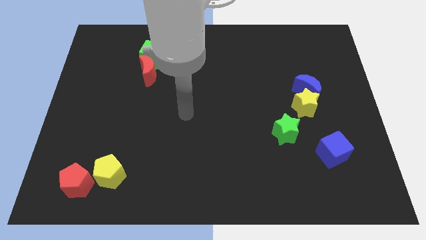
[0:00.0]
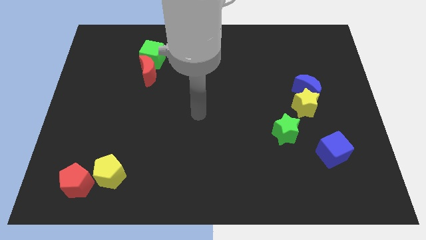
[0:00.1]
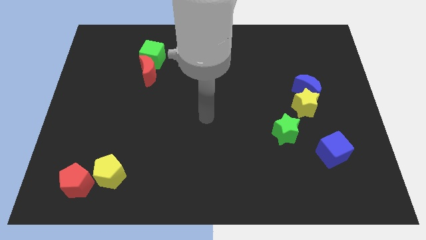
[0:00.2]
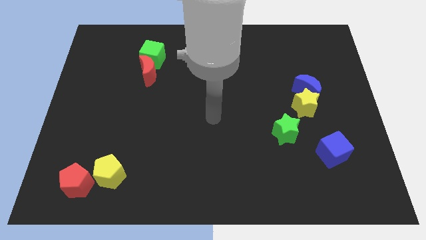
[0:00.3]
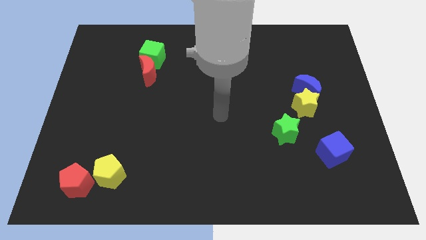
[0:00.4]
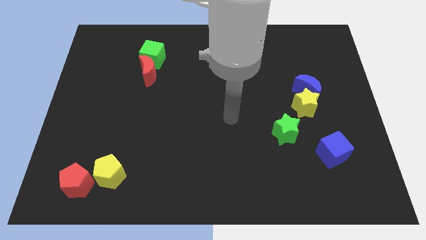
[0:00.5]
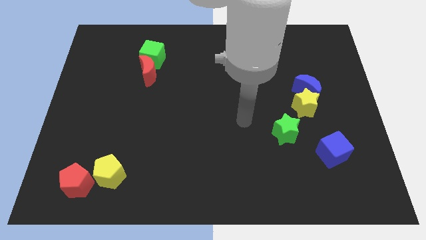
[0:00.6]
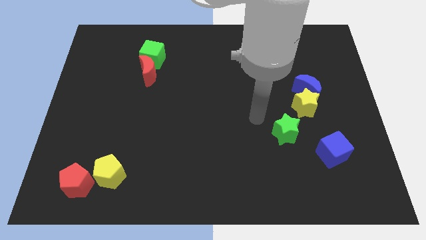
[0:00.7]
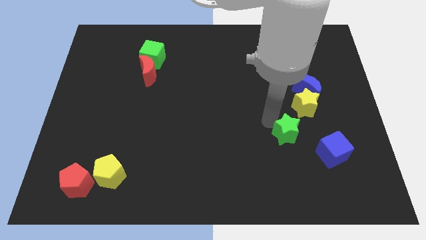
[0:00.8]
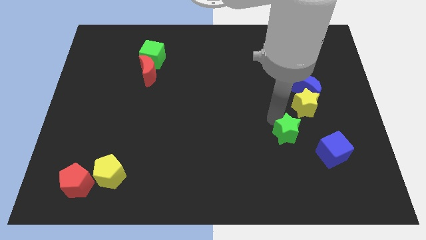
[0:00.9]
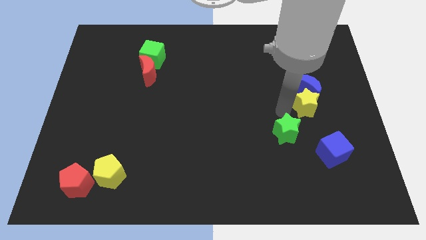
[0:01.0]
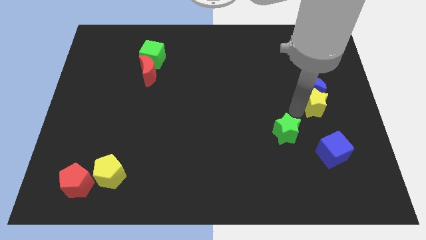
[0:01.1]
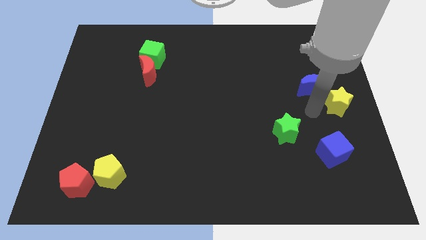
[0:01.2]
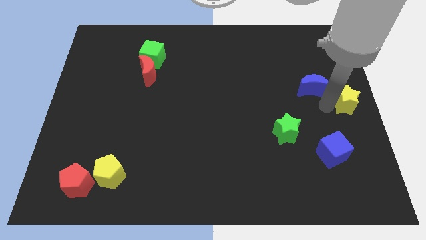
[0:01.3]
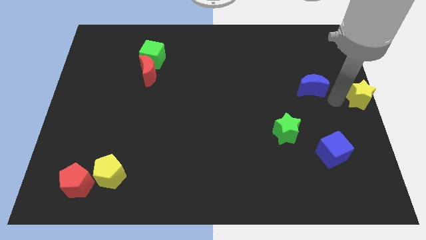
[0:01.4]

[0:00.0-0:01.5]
pull the blue moon apart from the yellow star

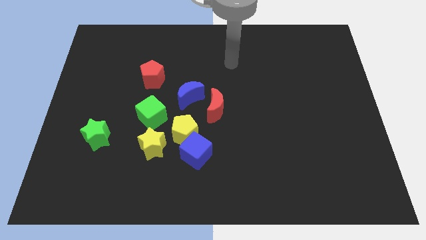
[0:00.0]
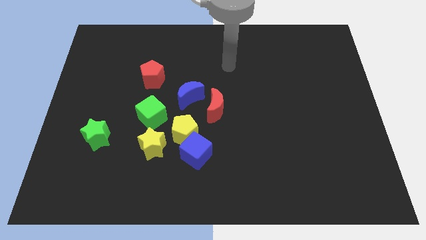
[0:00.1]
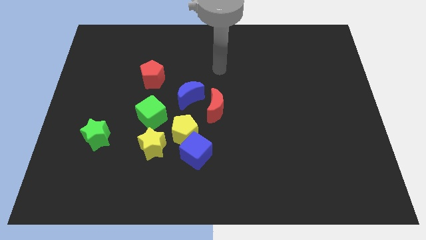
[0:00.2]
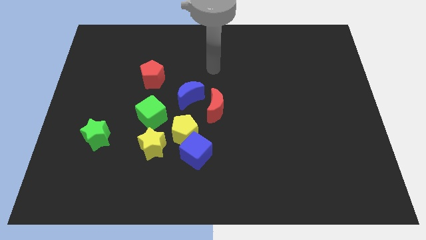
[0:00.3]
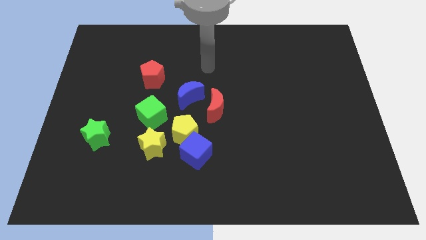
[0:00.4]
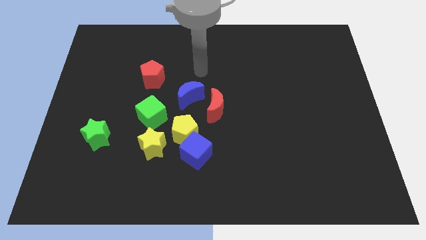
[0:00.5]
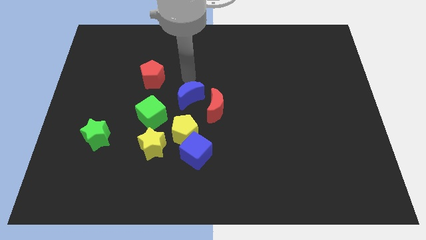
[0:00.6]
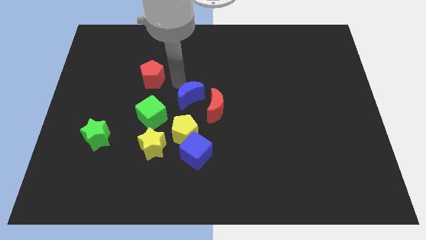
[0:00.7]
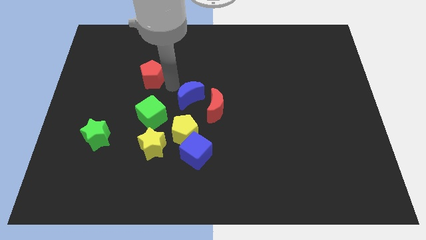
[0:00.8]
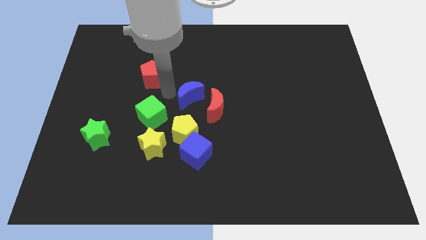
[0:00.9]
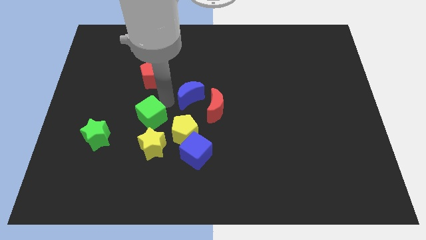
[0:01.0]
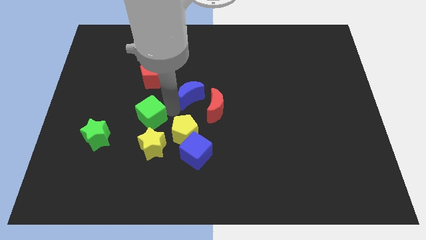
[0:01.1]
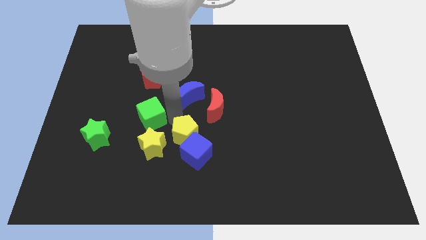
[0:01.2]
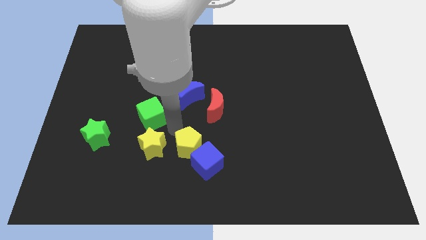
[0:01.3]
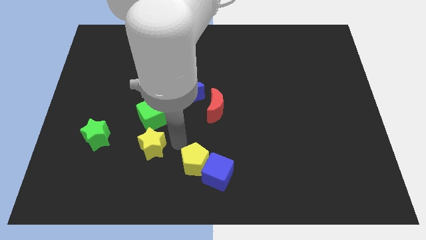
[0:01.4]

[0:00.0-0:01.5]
pull the blue cube apart from the yellow pentagon and yellow star

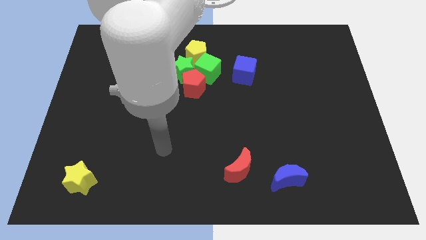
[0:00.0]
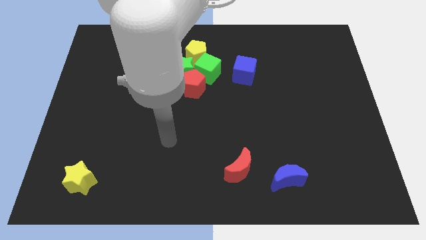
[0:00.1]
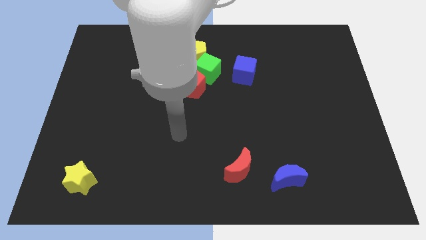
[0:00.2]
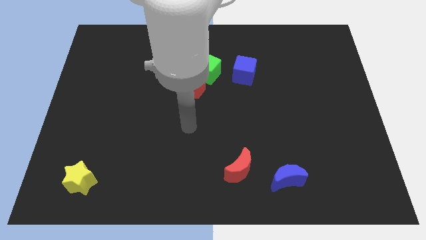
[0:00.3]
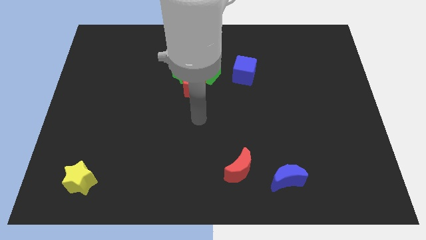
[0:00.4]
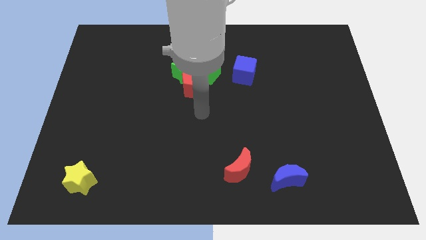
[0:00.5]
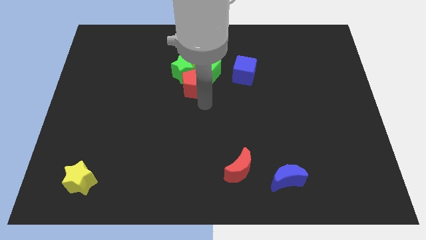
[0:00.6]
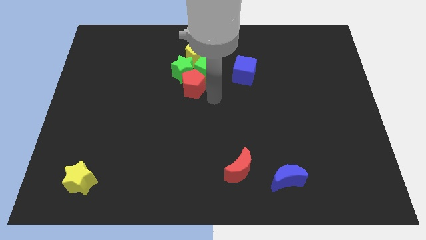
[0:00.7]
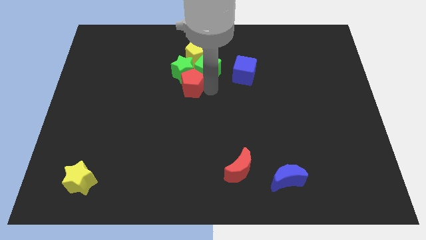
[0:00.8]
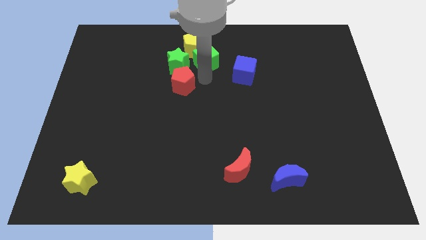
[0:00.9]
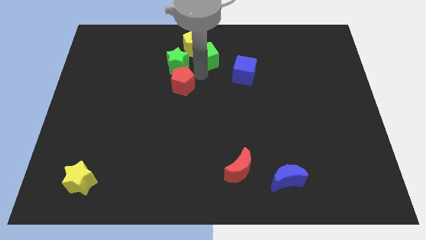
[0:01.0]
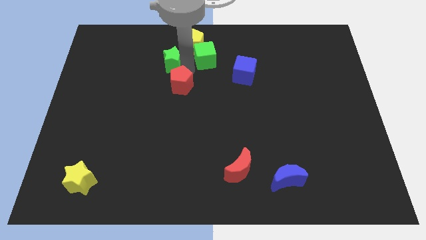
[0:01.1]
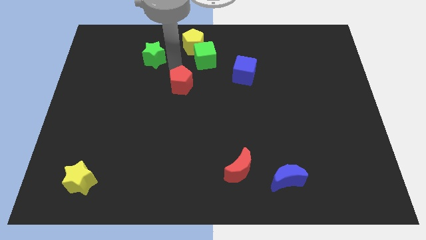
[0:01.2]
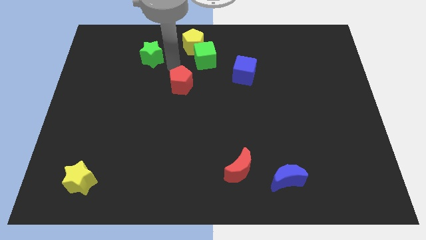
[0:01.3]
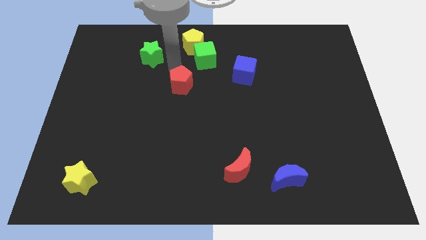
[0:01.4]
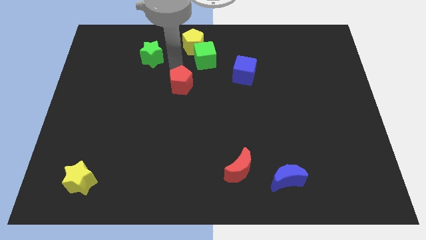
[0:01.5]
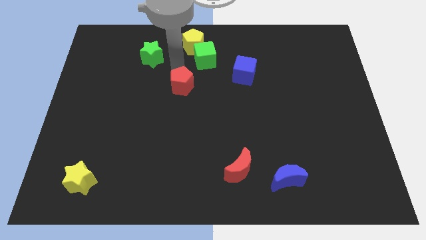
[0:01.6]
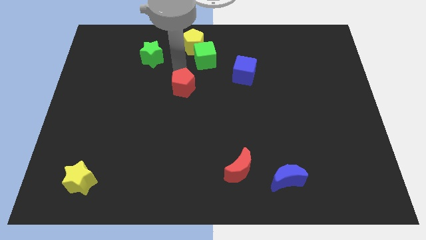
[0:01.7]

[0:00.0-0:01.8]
pull the red pentagon apart from the green star and green cube

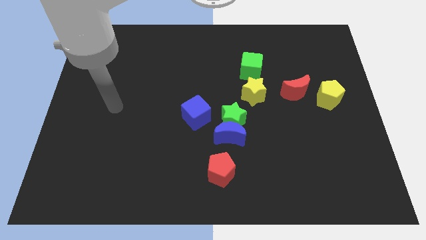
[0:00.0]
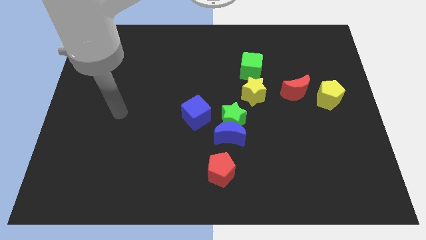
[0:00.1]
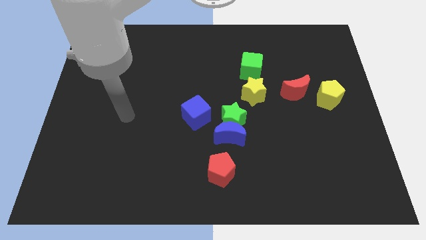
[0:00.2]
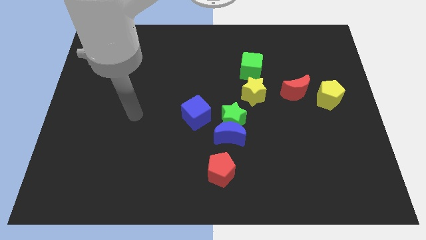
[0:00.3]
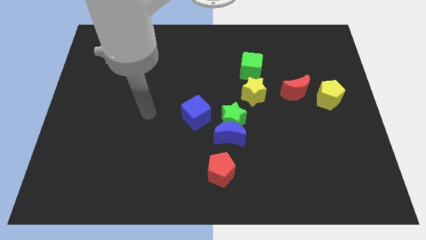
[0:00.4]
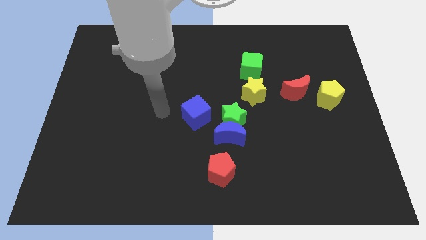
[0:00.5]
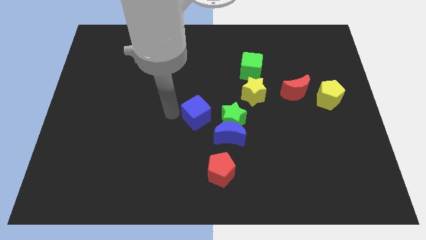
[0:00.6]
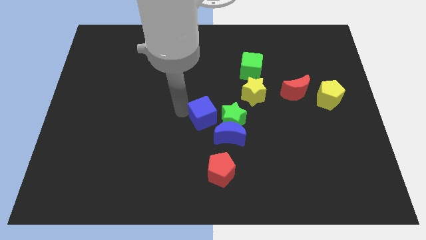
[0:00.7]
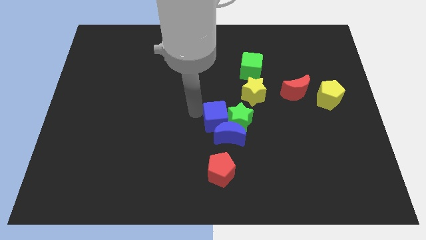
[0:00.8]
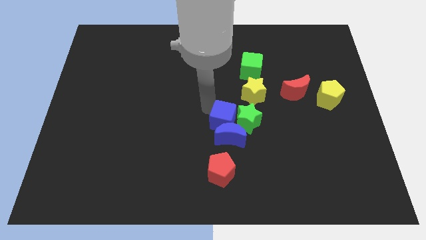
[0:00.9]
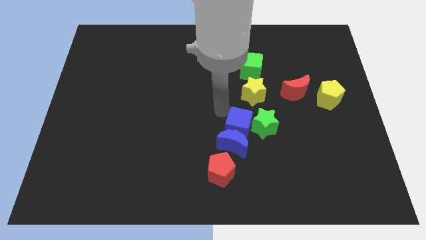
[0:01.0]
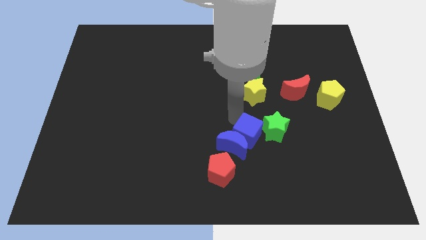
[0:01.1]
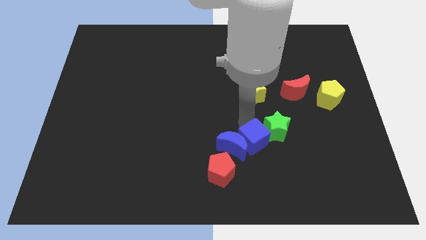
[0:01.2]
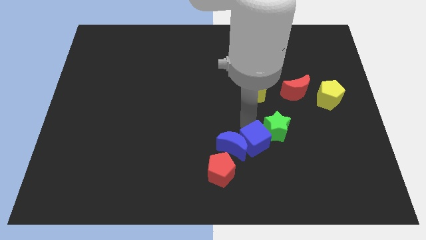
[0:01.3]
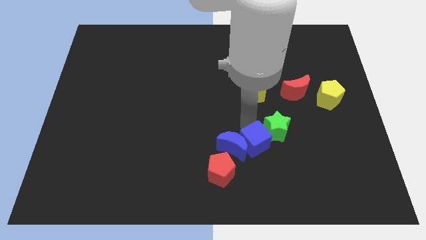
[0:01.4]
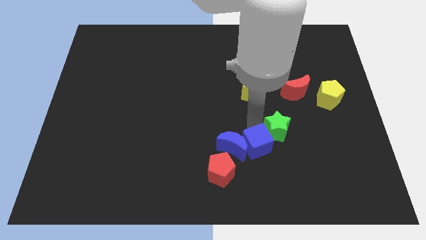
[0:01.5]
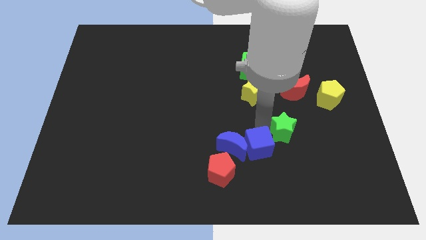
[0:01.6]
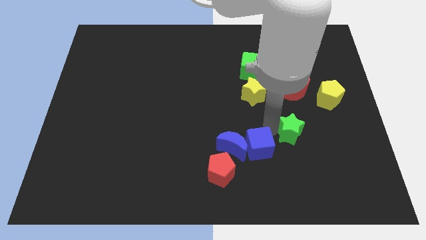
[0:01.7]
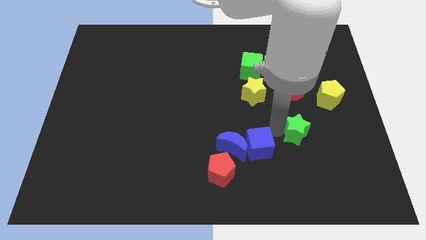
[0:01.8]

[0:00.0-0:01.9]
pull the green star apart from the blue moon, blue cube, and yellow star

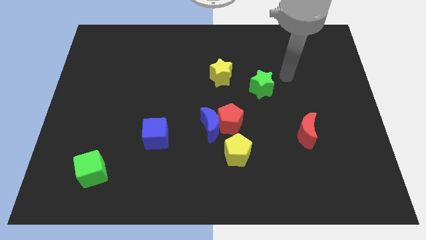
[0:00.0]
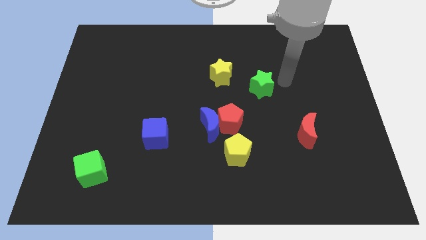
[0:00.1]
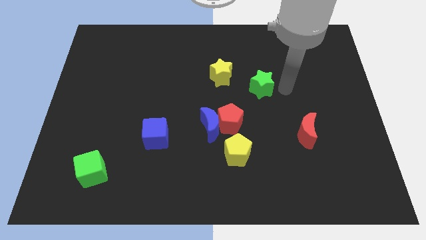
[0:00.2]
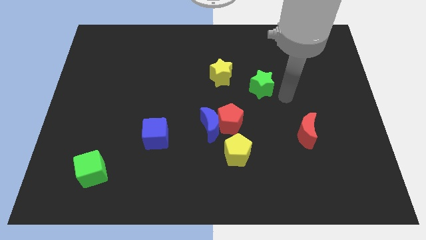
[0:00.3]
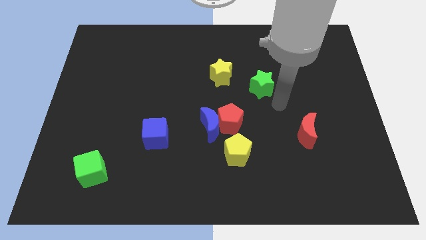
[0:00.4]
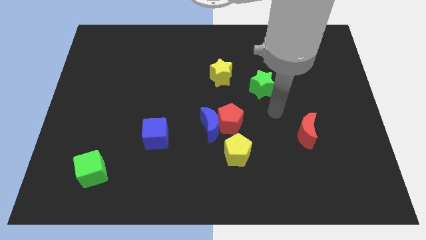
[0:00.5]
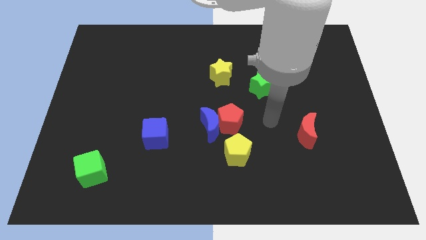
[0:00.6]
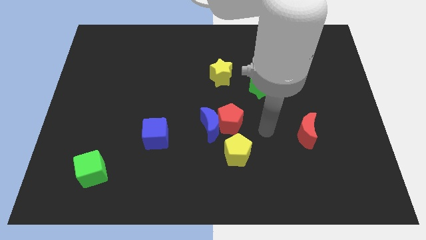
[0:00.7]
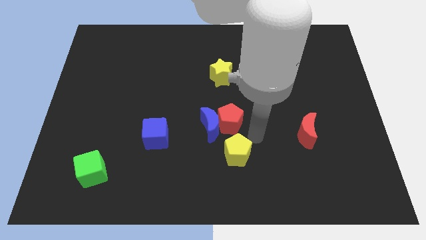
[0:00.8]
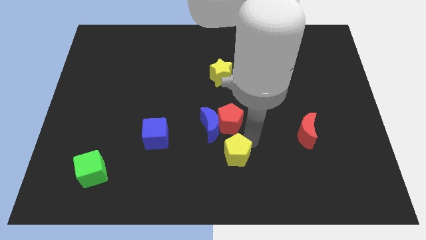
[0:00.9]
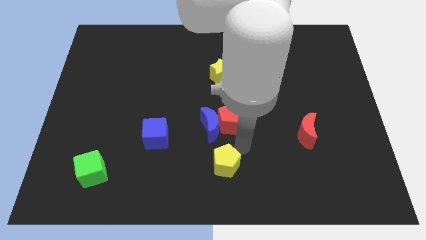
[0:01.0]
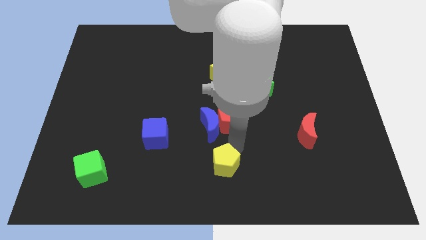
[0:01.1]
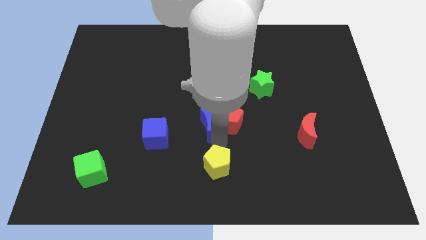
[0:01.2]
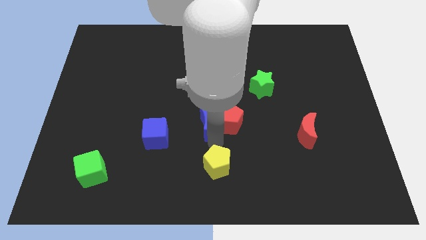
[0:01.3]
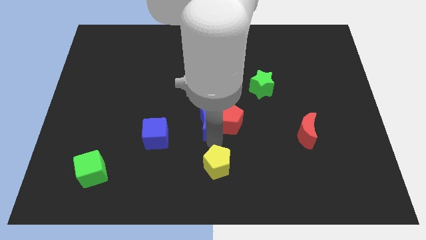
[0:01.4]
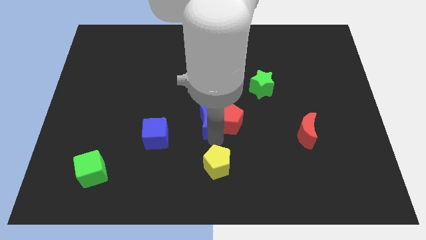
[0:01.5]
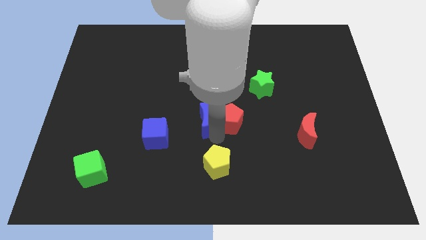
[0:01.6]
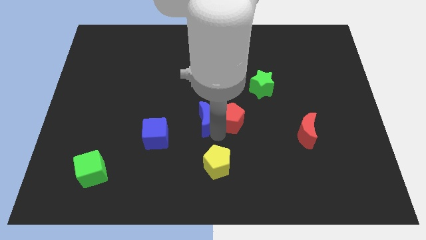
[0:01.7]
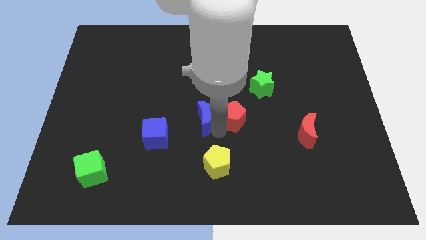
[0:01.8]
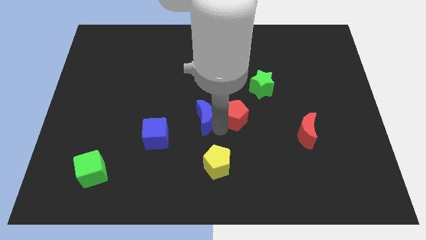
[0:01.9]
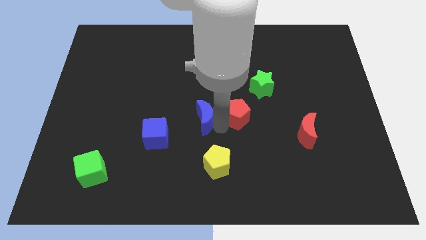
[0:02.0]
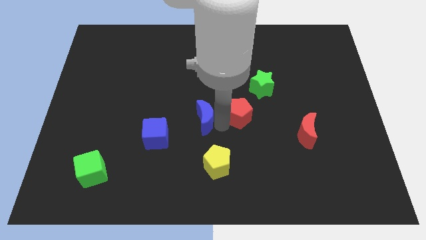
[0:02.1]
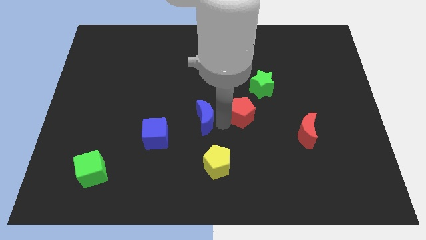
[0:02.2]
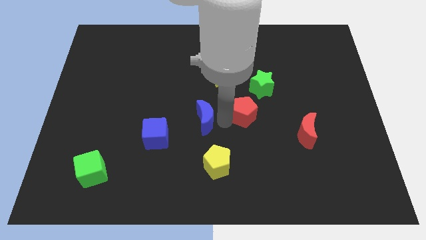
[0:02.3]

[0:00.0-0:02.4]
pull the red pentagon apart from the blue moon and yellow pentagon

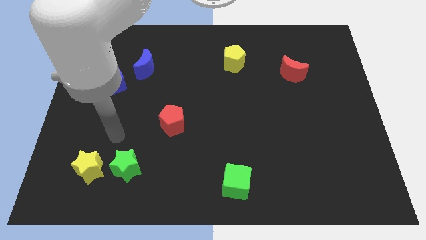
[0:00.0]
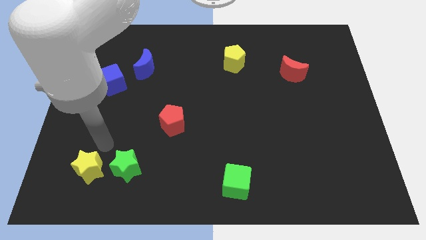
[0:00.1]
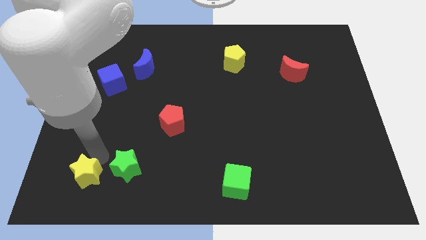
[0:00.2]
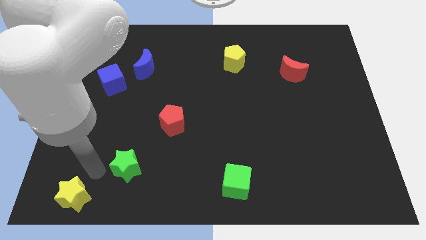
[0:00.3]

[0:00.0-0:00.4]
separate the green star from the yellow star
